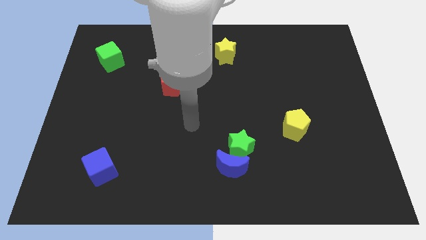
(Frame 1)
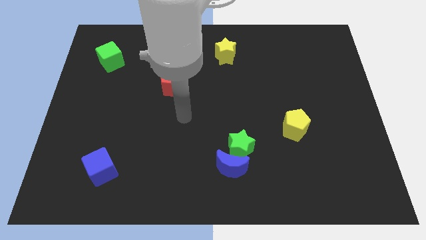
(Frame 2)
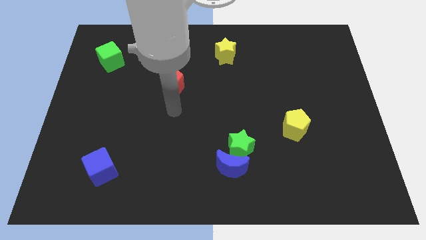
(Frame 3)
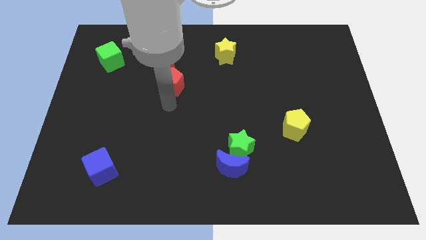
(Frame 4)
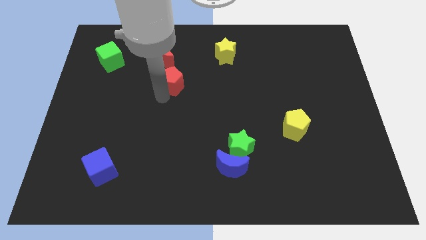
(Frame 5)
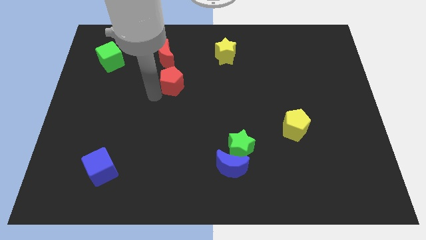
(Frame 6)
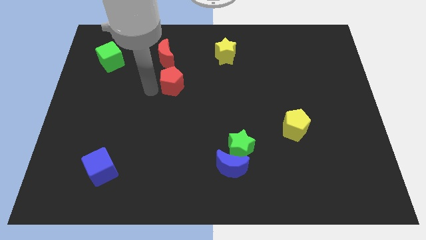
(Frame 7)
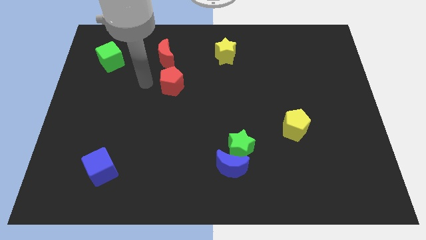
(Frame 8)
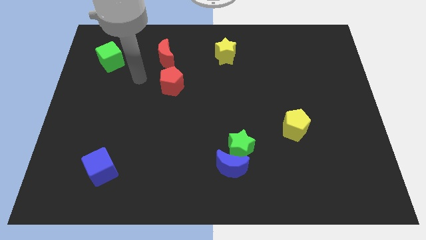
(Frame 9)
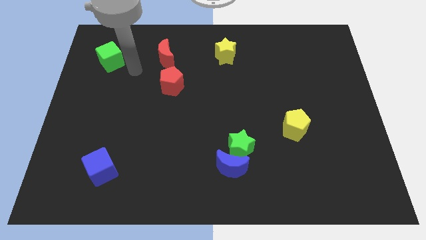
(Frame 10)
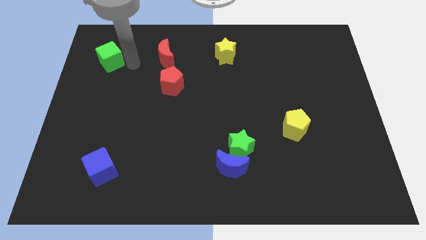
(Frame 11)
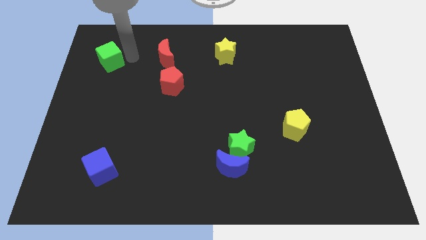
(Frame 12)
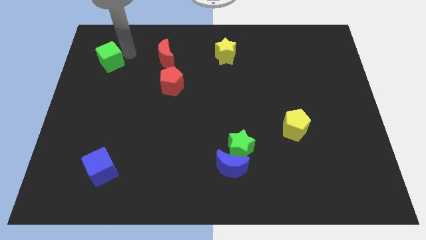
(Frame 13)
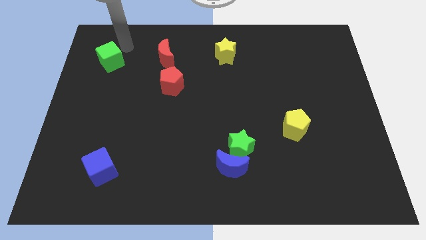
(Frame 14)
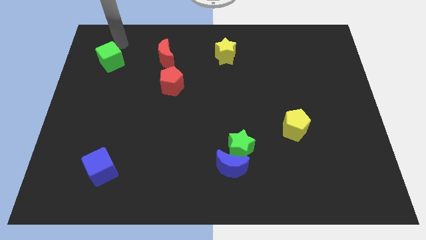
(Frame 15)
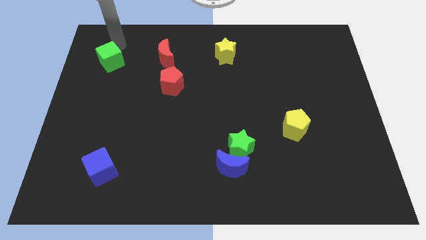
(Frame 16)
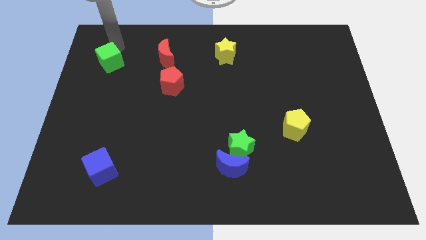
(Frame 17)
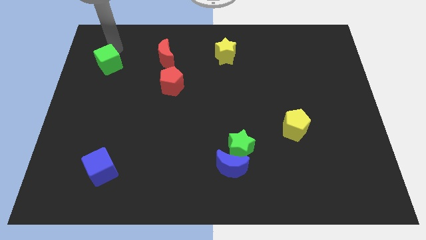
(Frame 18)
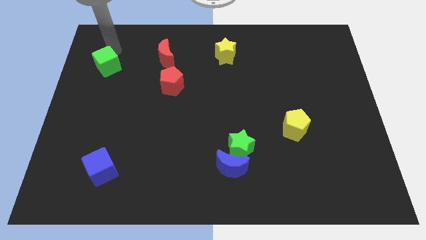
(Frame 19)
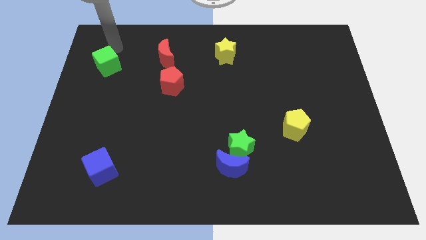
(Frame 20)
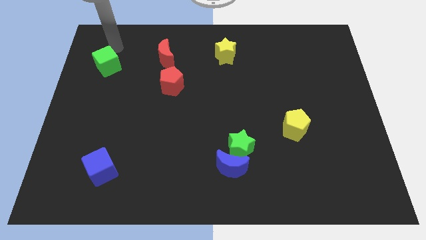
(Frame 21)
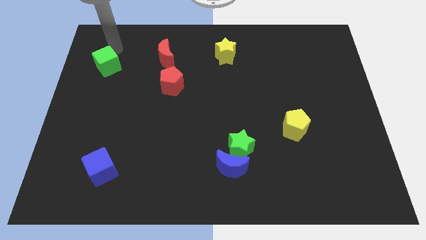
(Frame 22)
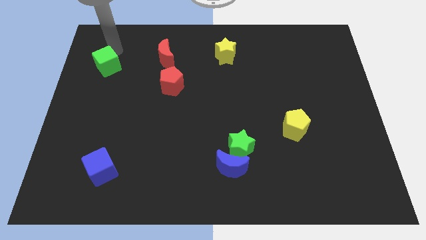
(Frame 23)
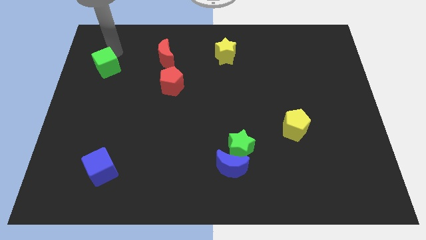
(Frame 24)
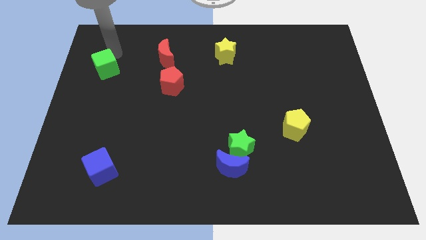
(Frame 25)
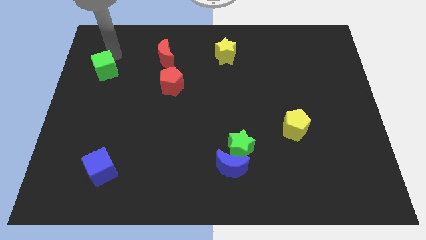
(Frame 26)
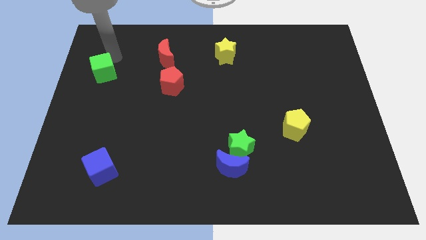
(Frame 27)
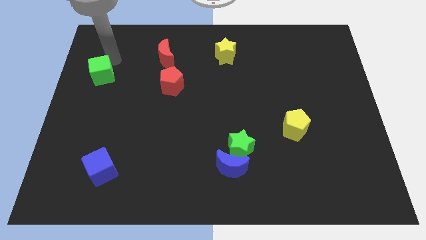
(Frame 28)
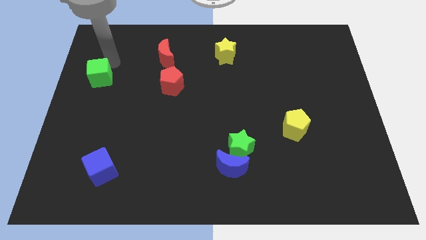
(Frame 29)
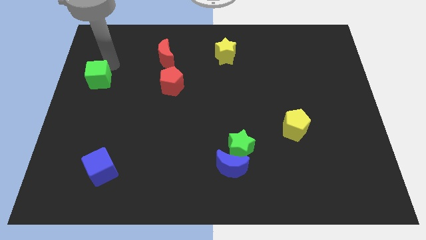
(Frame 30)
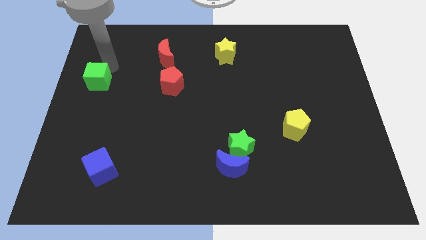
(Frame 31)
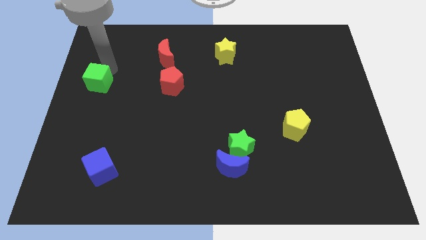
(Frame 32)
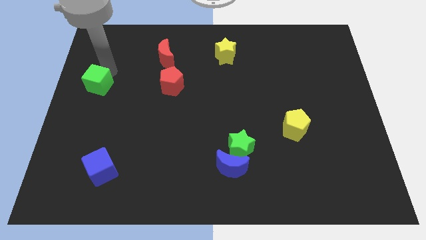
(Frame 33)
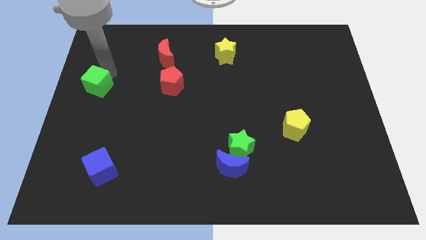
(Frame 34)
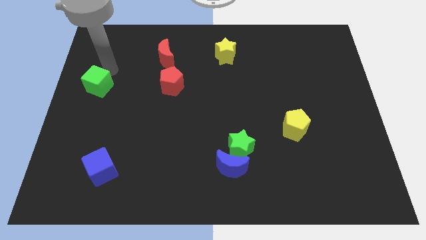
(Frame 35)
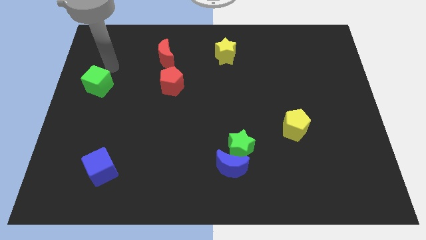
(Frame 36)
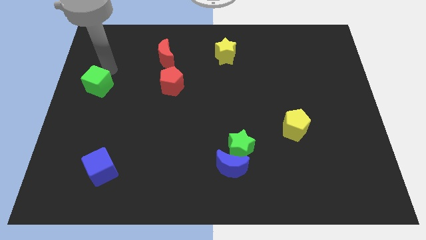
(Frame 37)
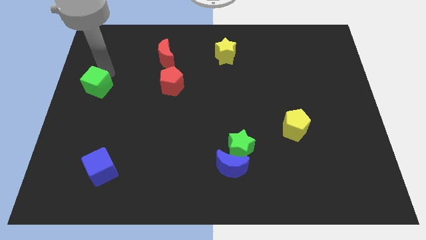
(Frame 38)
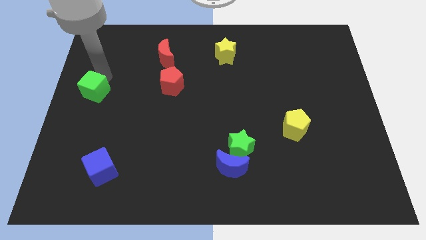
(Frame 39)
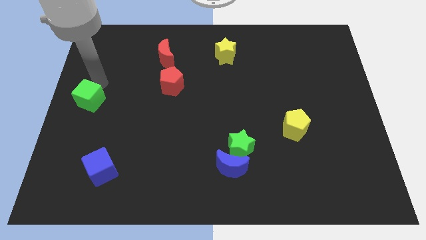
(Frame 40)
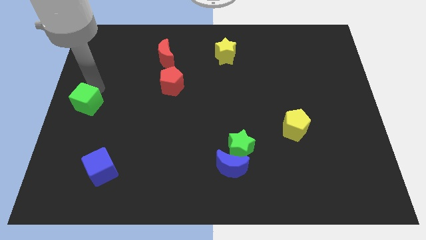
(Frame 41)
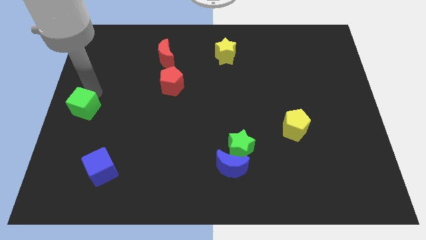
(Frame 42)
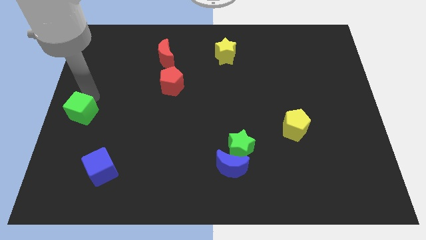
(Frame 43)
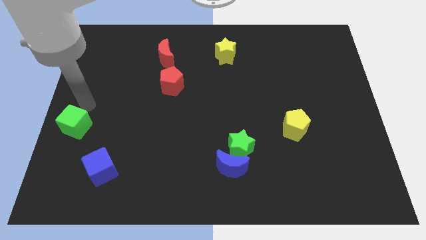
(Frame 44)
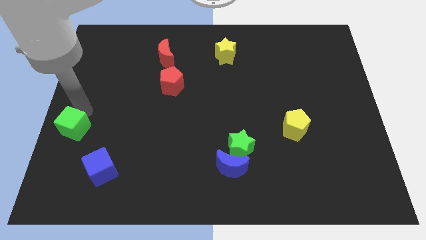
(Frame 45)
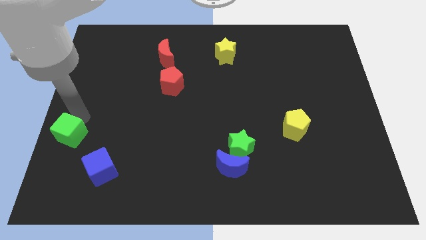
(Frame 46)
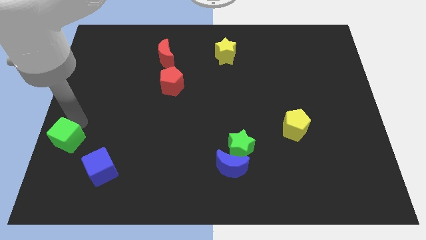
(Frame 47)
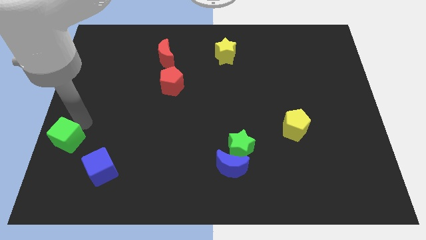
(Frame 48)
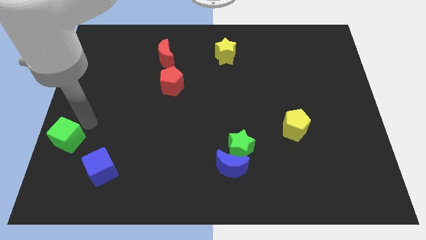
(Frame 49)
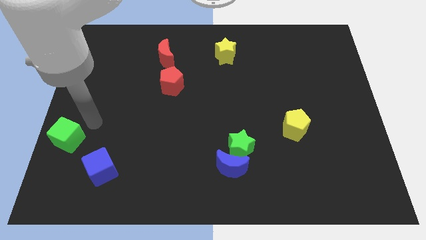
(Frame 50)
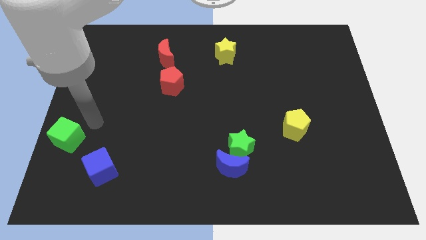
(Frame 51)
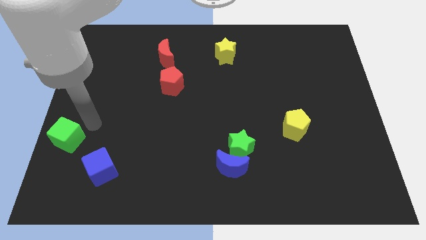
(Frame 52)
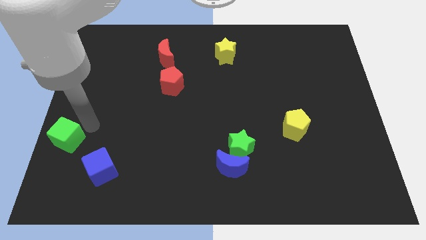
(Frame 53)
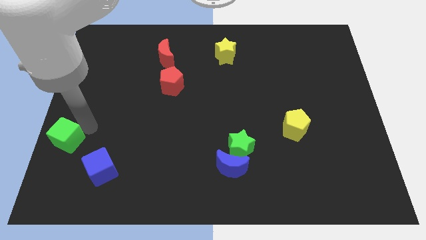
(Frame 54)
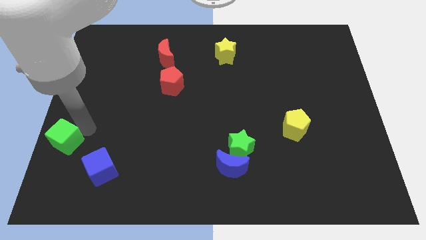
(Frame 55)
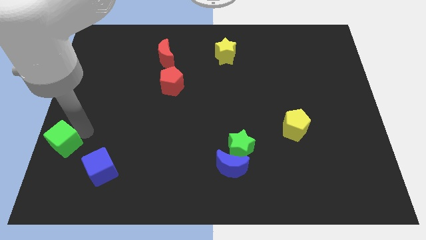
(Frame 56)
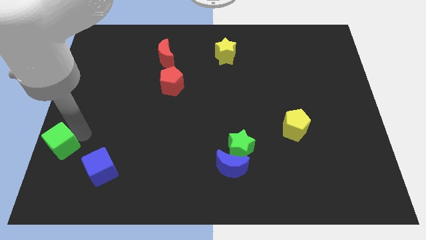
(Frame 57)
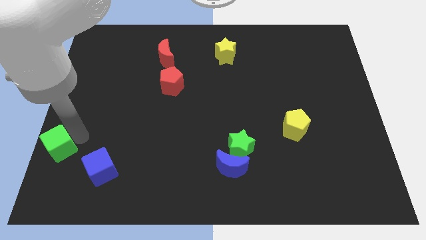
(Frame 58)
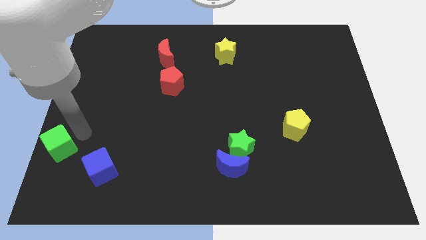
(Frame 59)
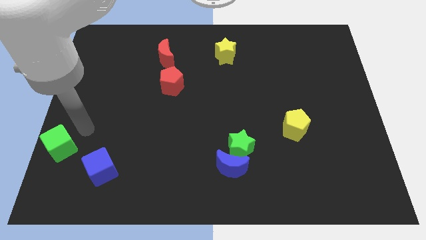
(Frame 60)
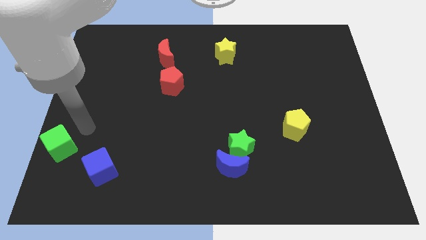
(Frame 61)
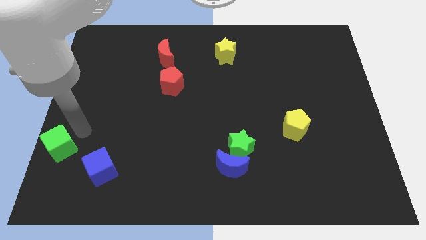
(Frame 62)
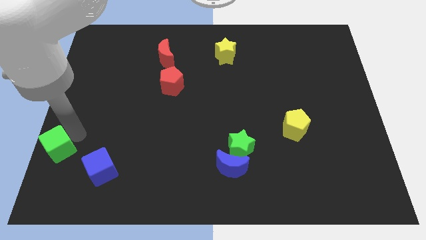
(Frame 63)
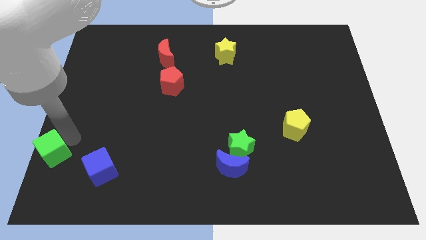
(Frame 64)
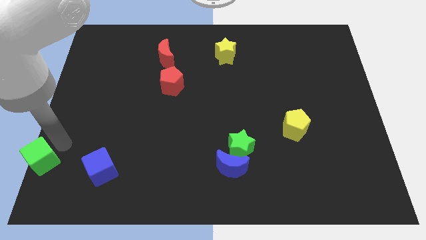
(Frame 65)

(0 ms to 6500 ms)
slide the green cube to the bottom left of the board
